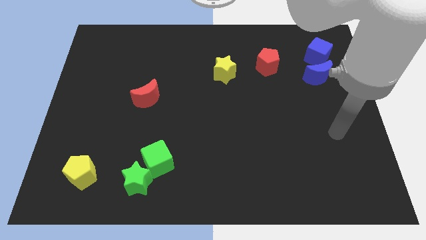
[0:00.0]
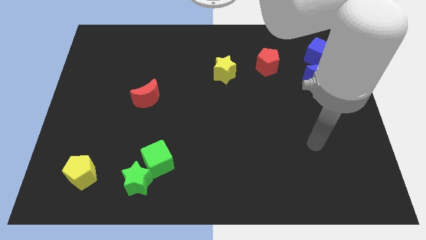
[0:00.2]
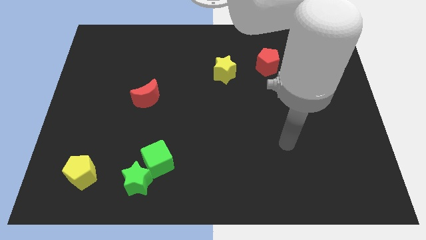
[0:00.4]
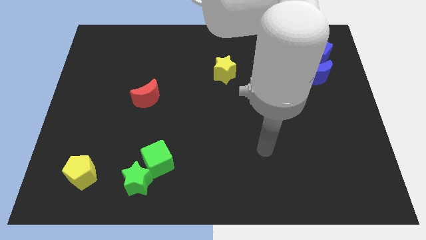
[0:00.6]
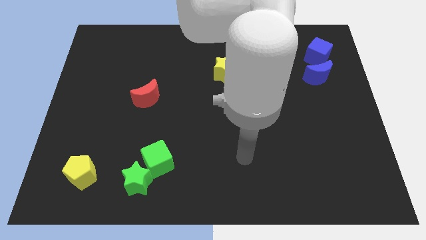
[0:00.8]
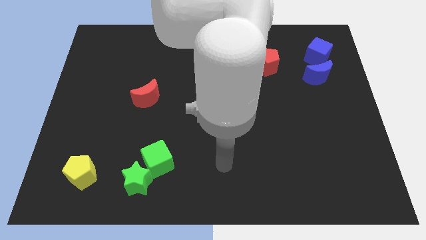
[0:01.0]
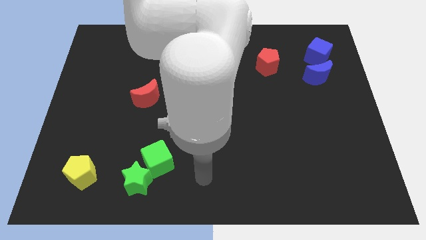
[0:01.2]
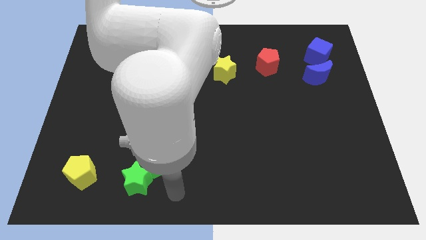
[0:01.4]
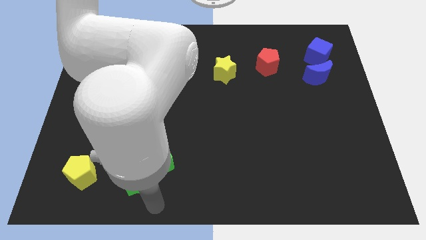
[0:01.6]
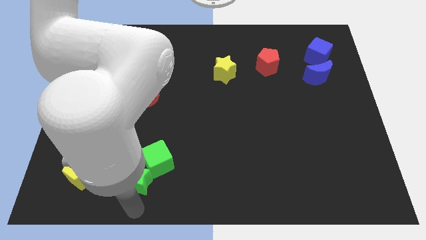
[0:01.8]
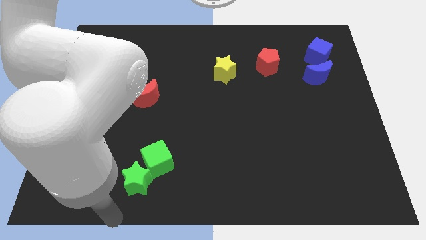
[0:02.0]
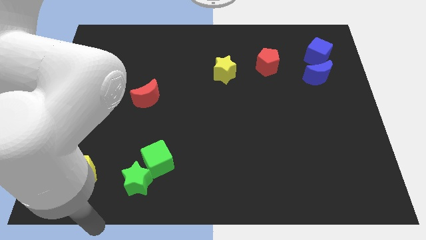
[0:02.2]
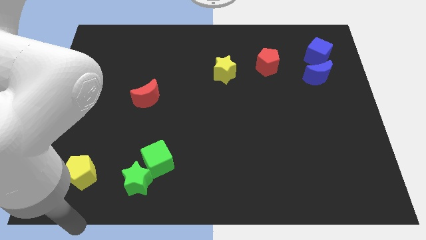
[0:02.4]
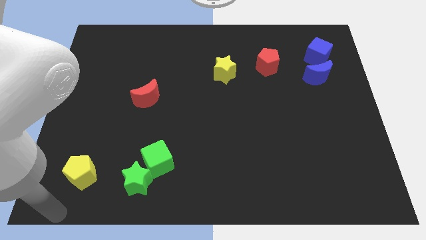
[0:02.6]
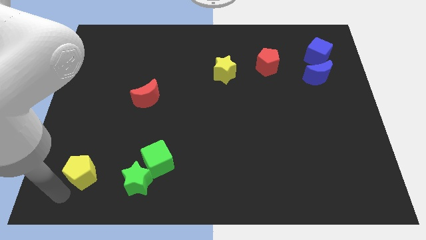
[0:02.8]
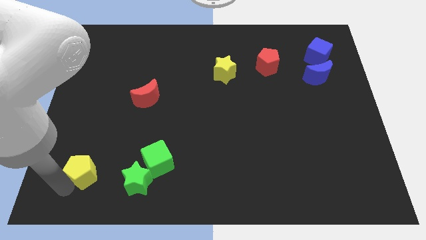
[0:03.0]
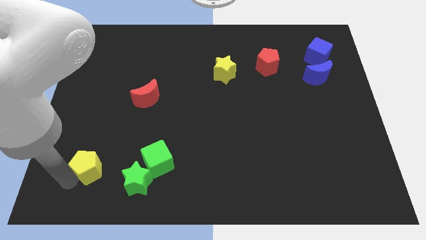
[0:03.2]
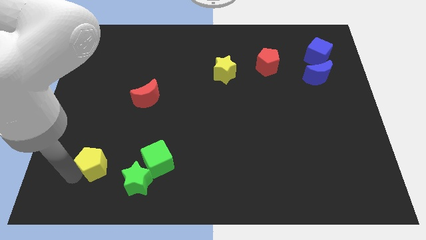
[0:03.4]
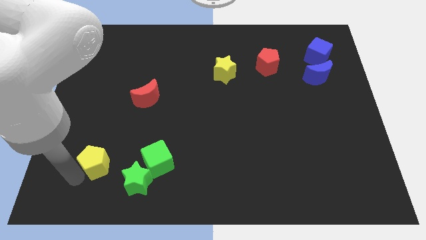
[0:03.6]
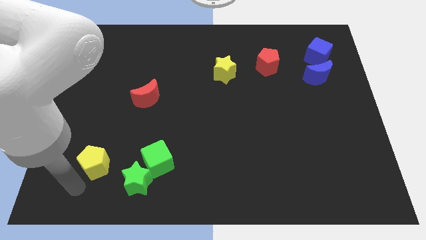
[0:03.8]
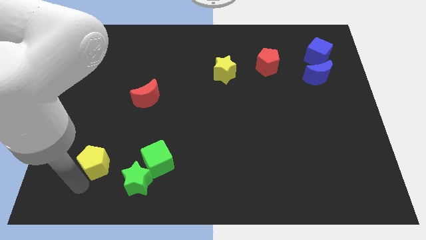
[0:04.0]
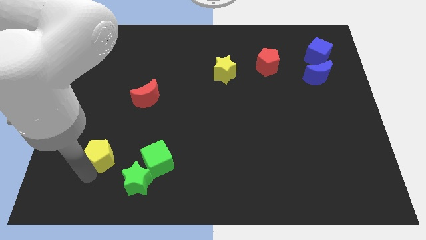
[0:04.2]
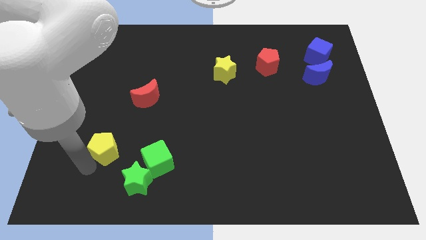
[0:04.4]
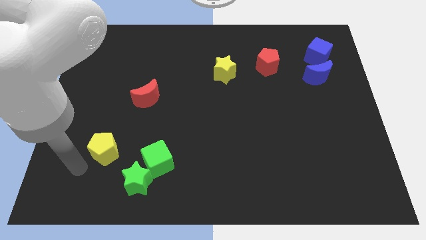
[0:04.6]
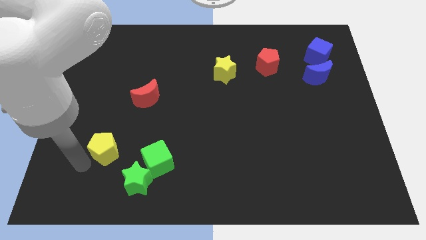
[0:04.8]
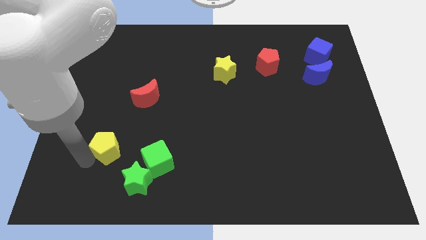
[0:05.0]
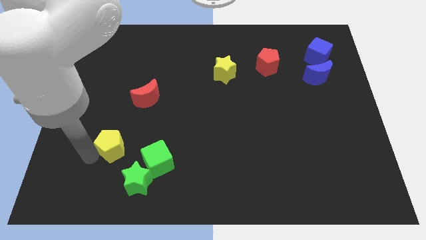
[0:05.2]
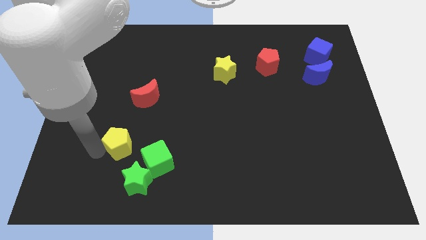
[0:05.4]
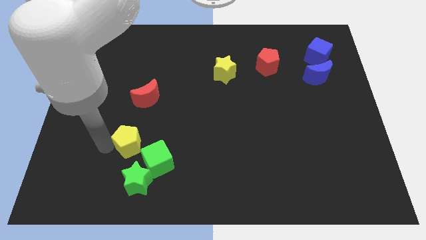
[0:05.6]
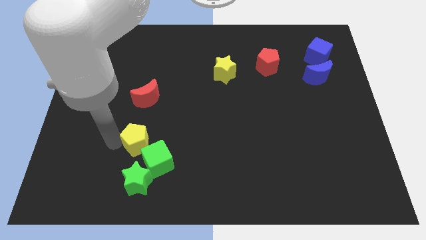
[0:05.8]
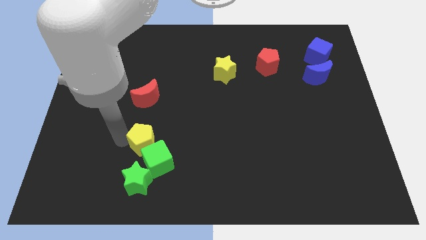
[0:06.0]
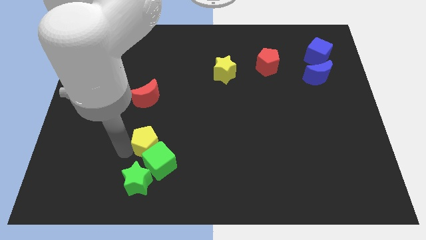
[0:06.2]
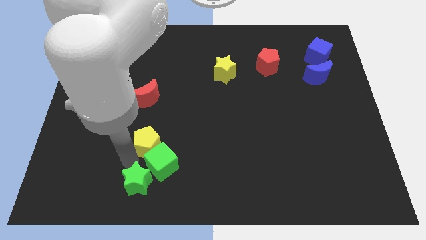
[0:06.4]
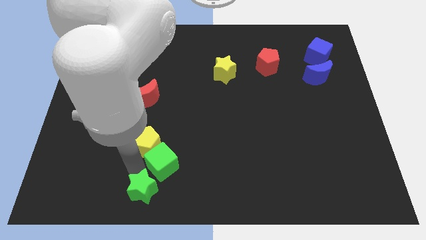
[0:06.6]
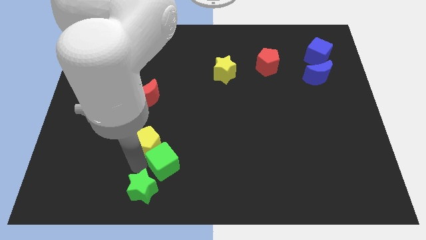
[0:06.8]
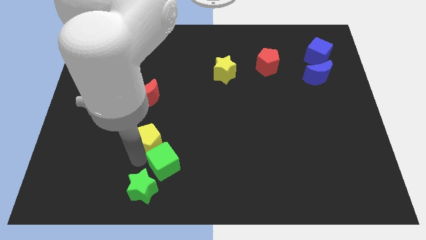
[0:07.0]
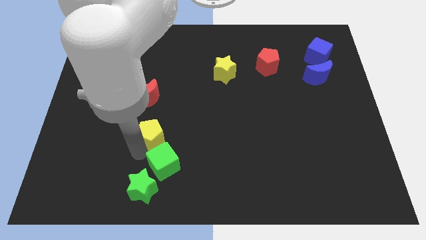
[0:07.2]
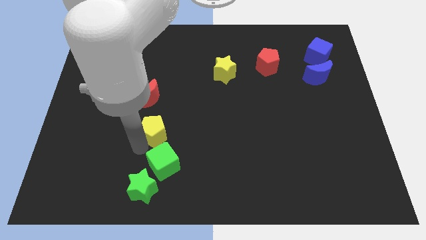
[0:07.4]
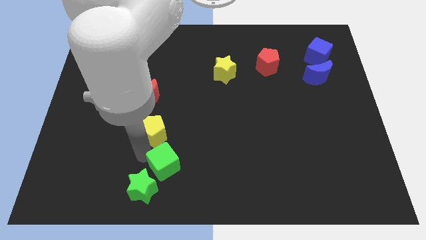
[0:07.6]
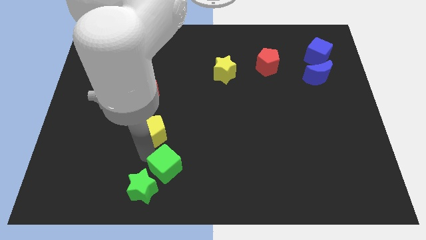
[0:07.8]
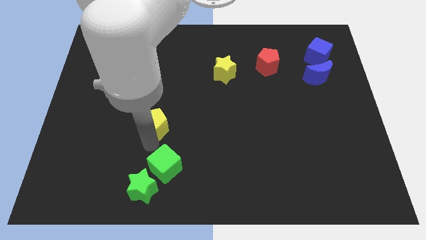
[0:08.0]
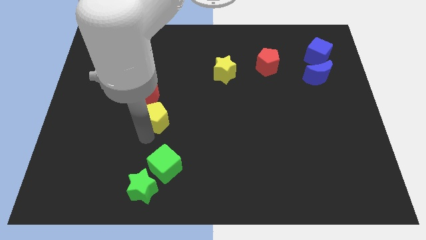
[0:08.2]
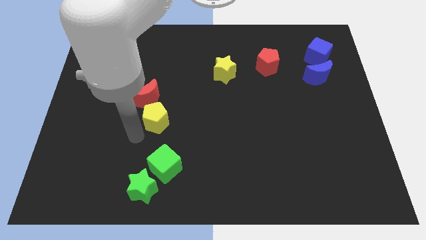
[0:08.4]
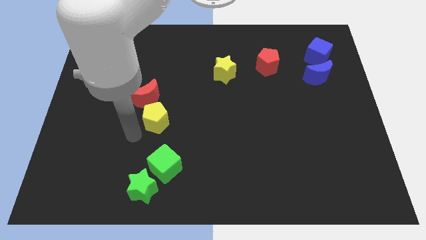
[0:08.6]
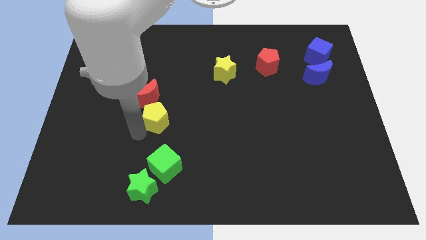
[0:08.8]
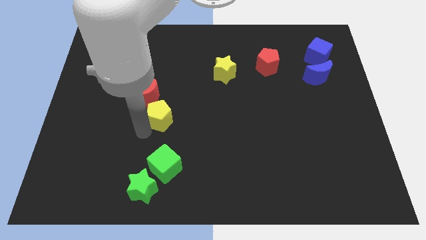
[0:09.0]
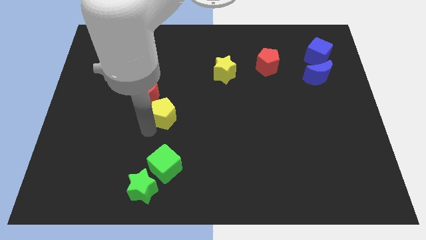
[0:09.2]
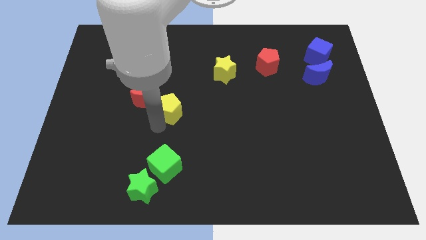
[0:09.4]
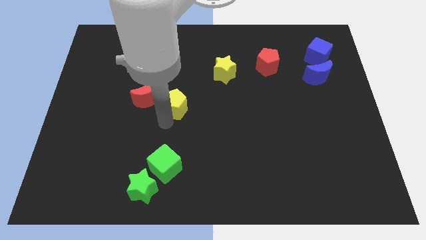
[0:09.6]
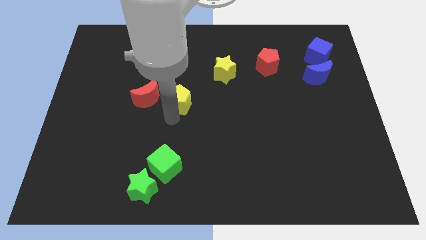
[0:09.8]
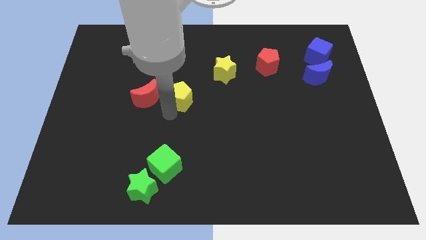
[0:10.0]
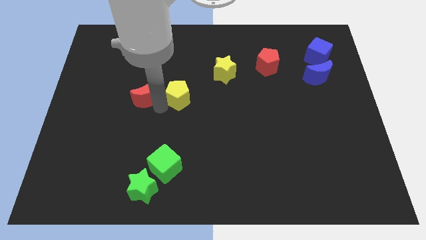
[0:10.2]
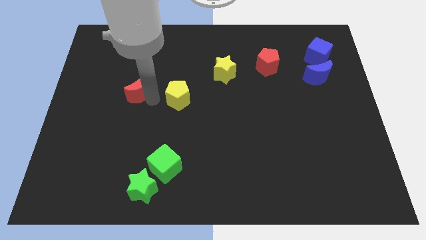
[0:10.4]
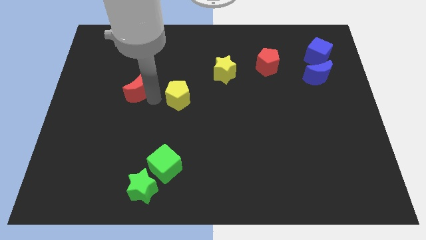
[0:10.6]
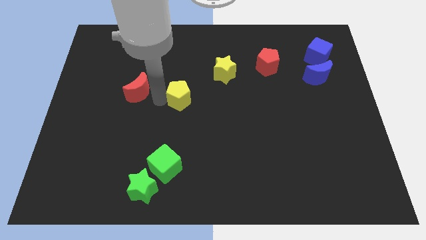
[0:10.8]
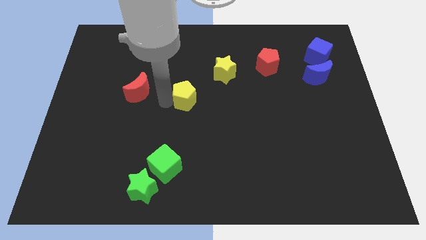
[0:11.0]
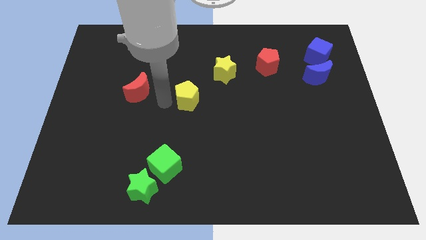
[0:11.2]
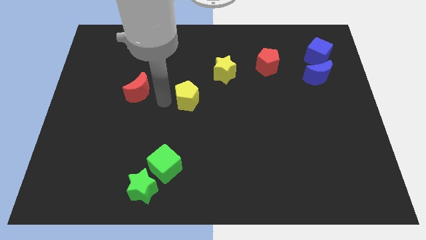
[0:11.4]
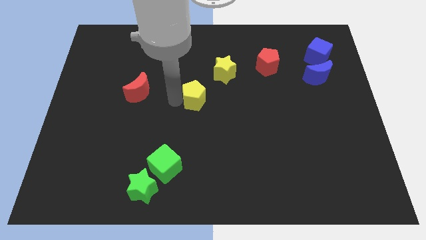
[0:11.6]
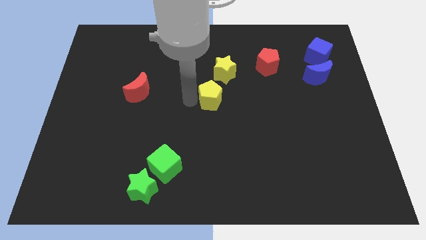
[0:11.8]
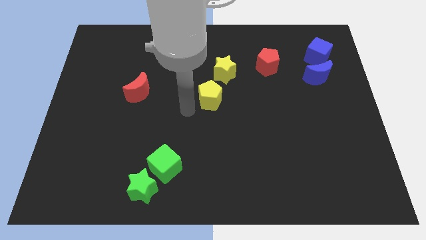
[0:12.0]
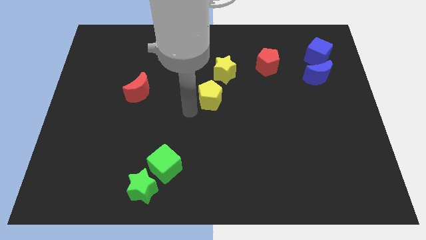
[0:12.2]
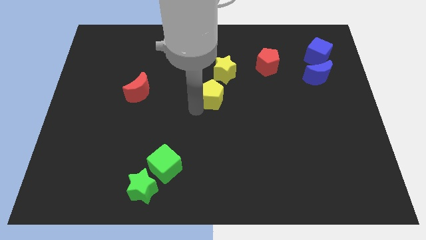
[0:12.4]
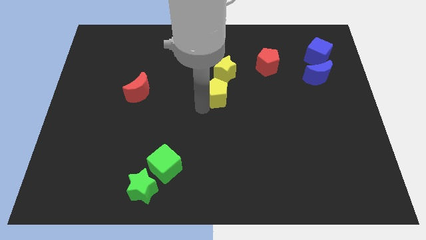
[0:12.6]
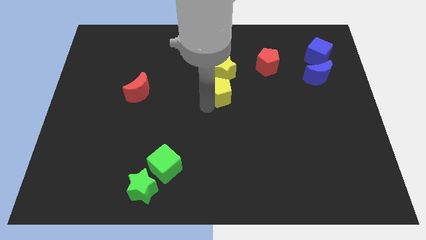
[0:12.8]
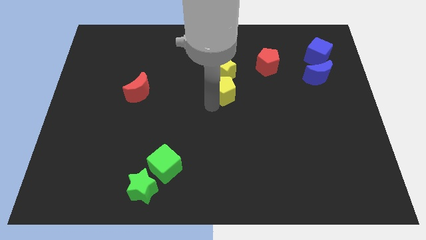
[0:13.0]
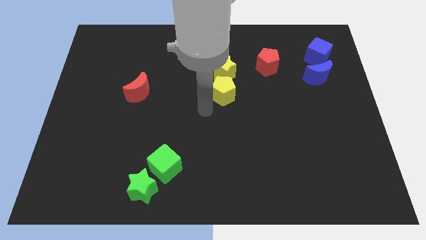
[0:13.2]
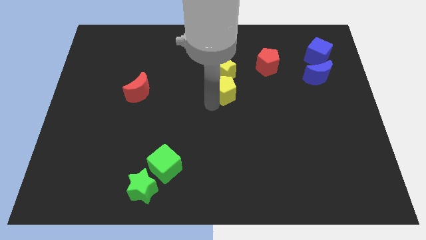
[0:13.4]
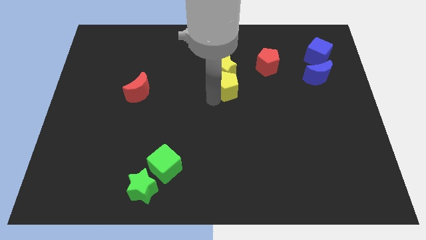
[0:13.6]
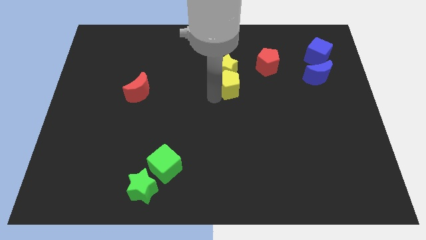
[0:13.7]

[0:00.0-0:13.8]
push the yellow pentagon to the bottom left side of the red pentagon
